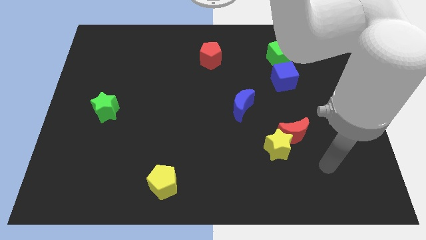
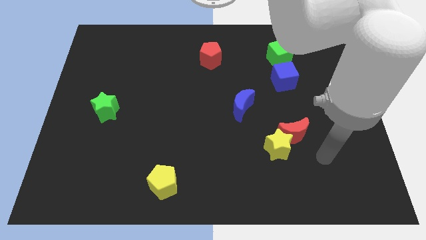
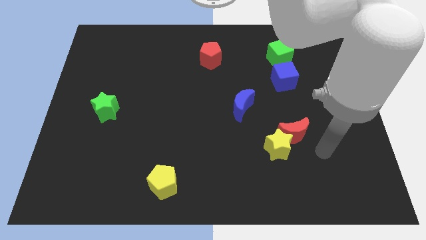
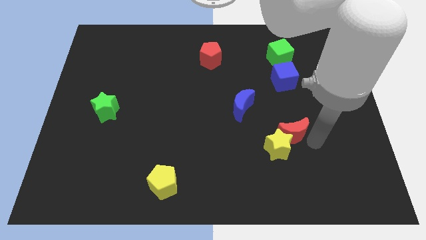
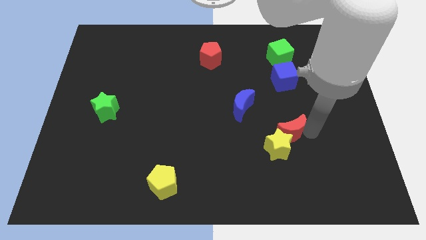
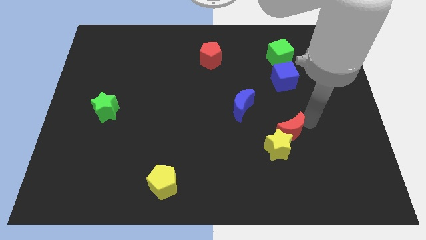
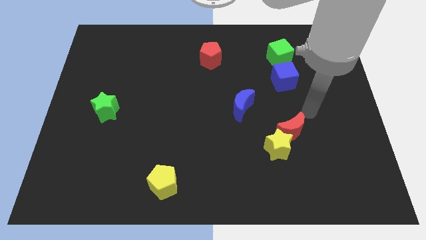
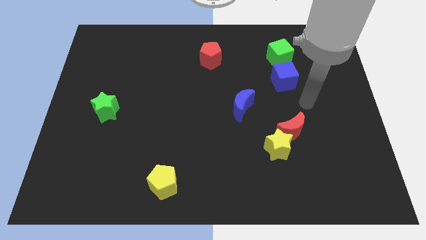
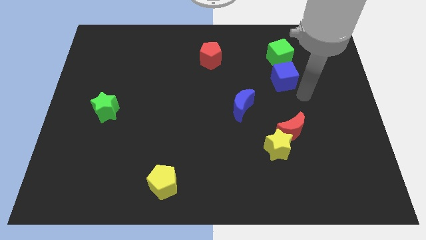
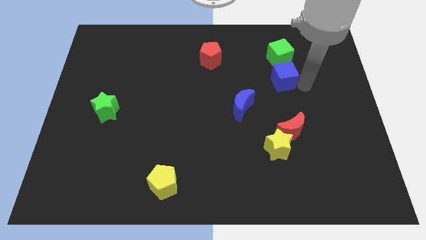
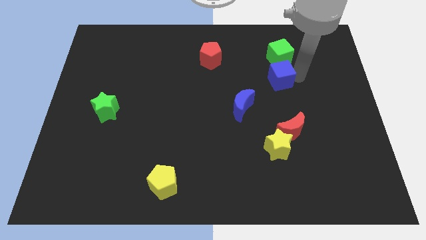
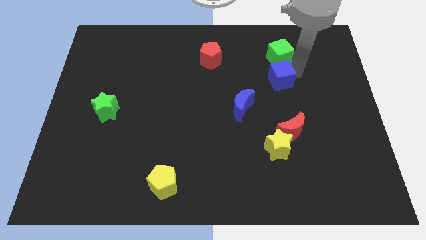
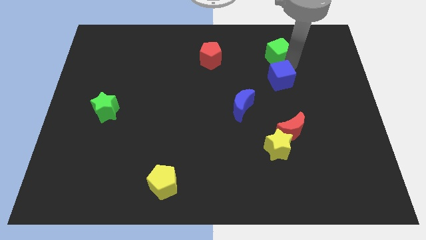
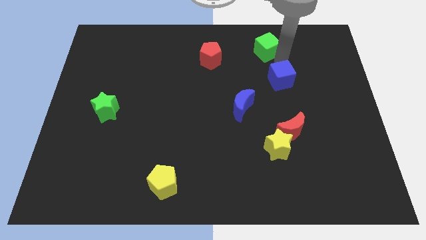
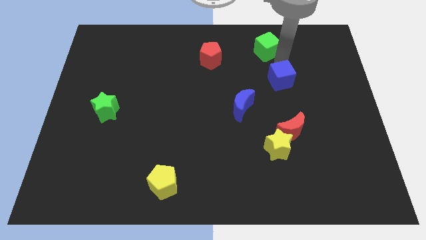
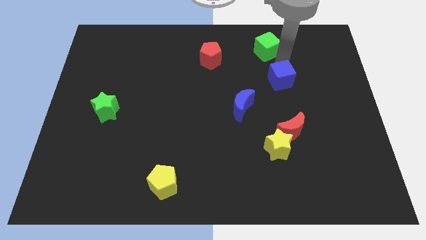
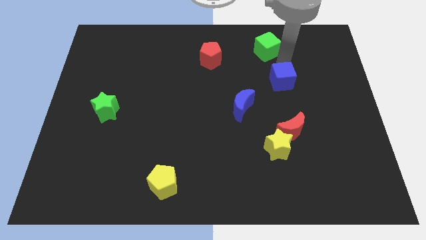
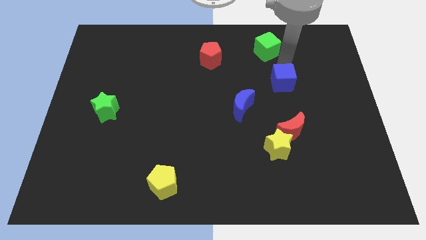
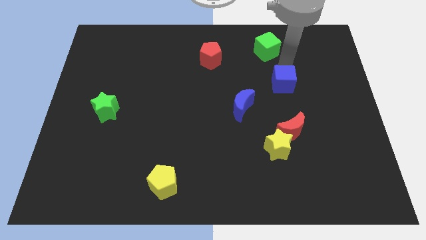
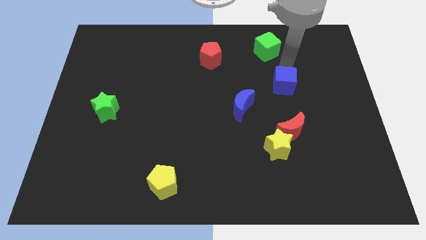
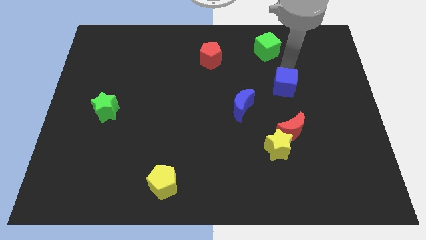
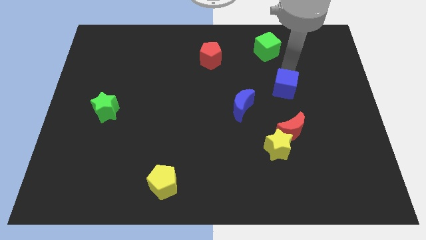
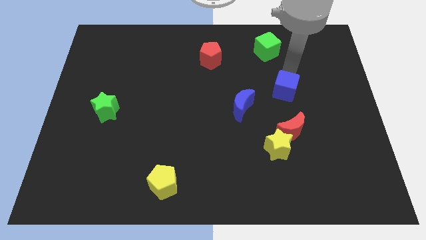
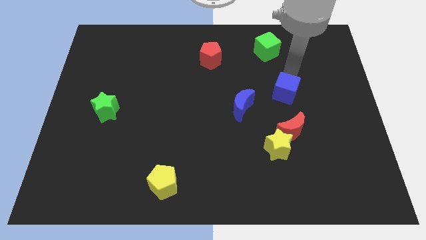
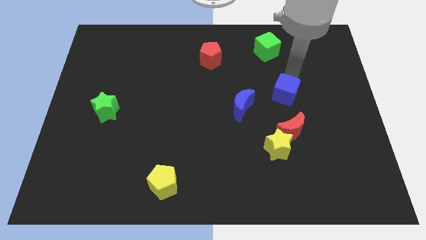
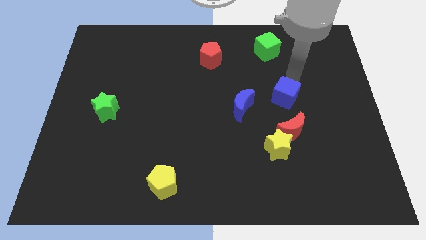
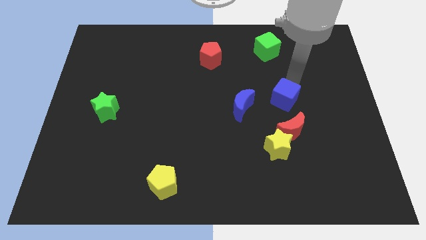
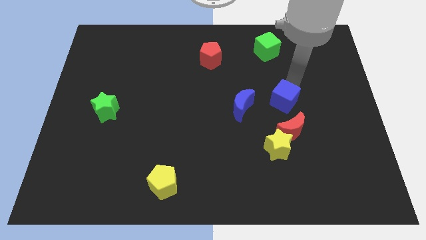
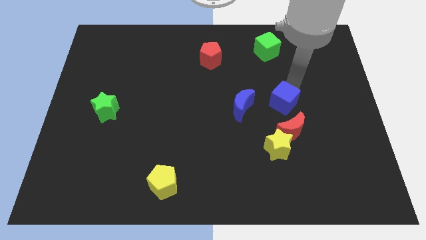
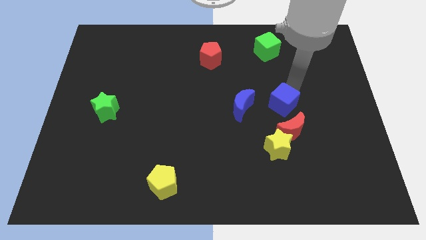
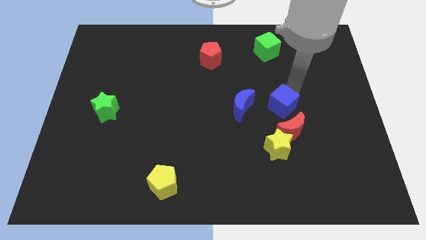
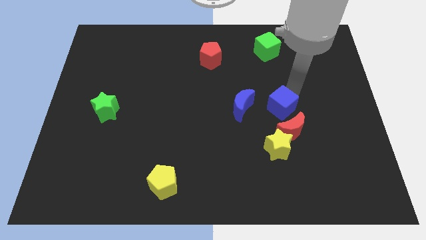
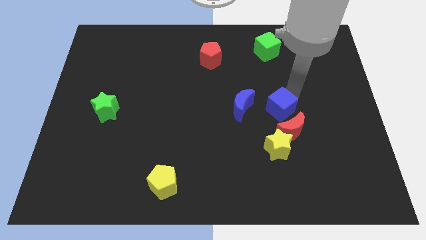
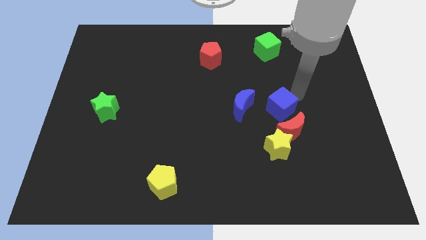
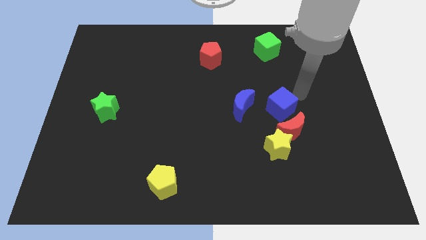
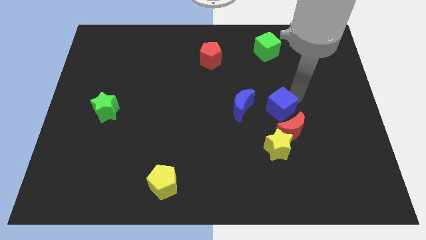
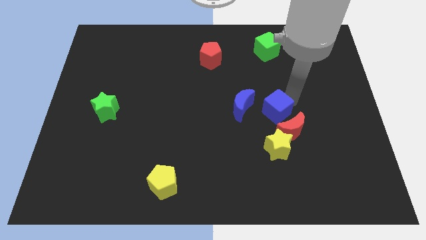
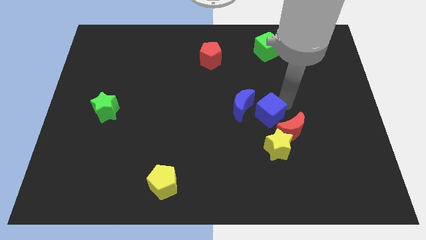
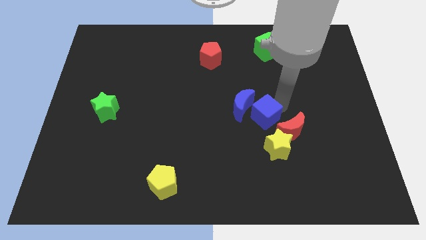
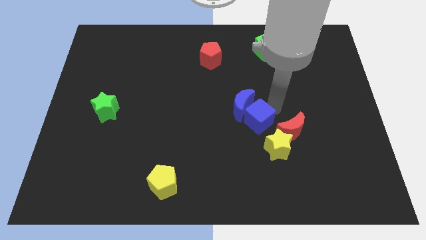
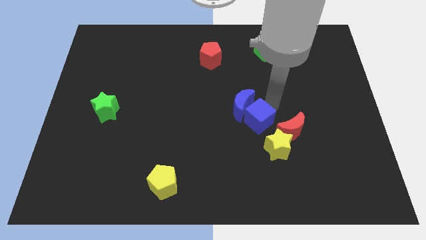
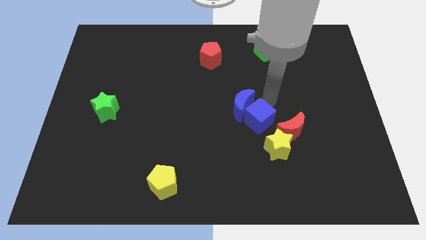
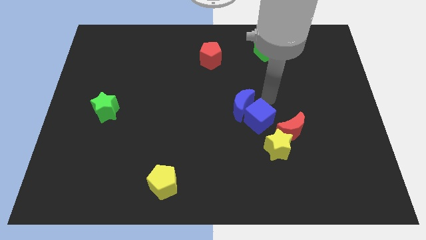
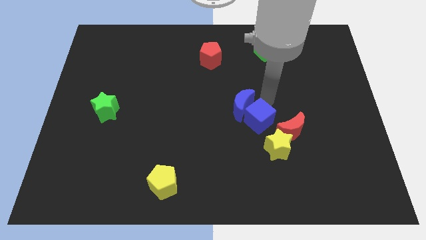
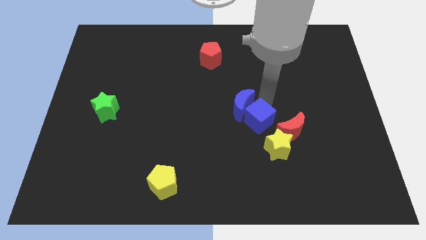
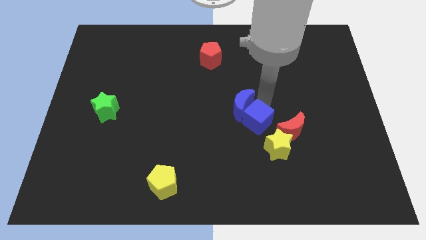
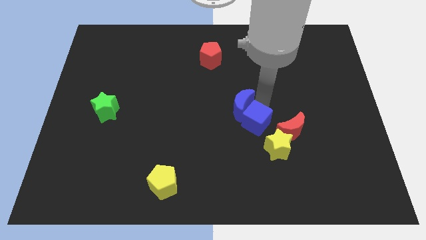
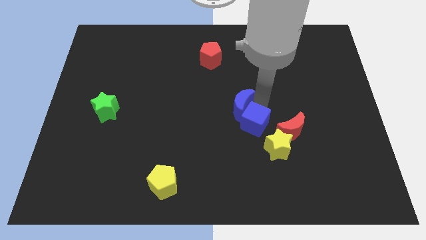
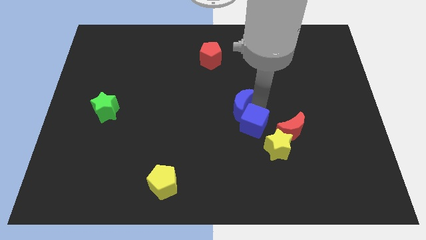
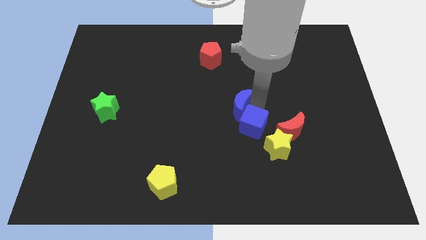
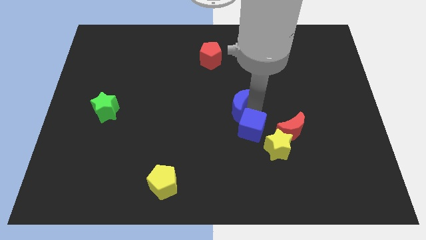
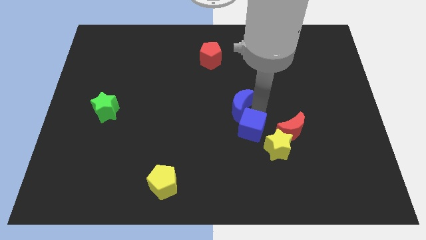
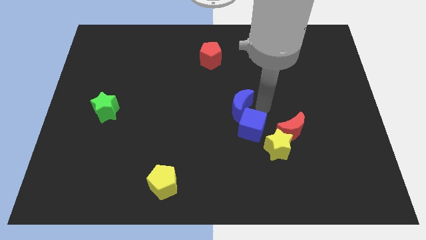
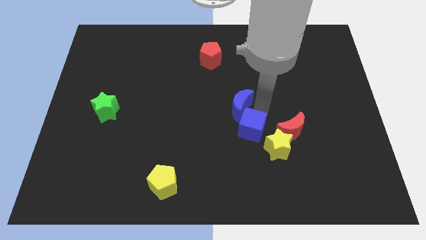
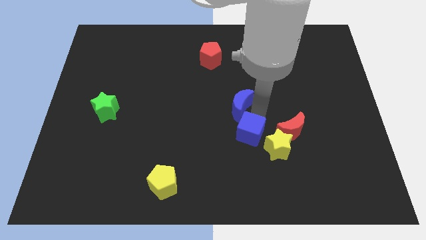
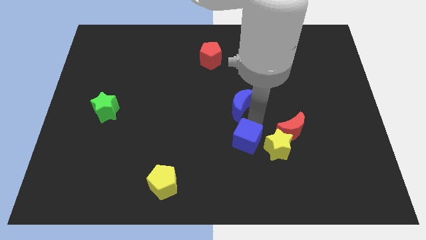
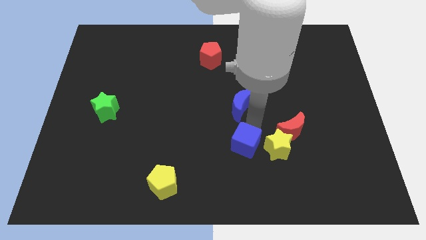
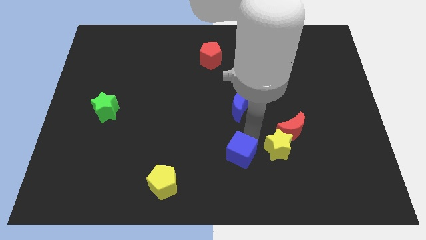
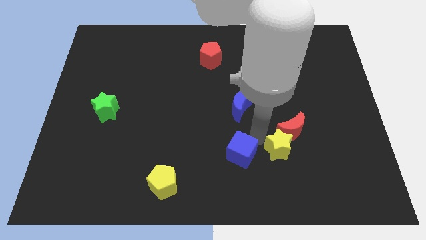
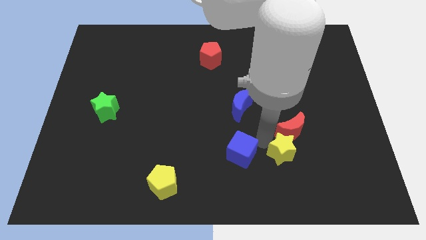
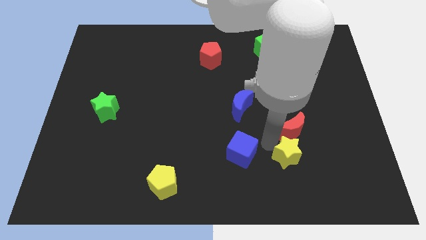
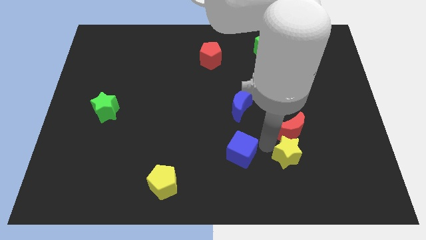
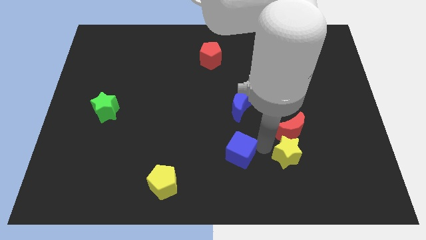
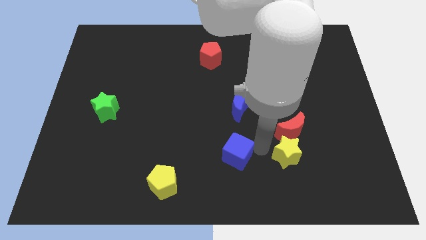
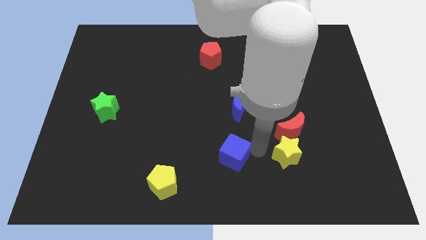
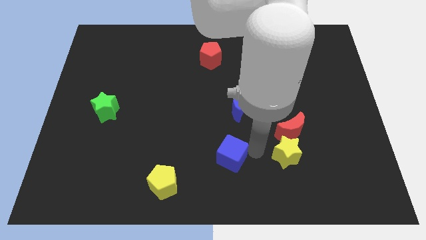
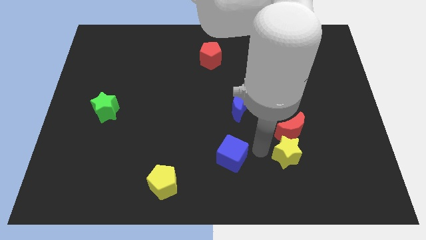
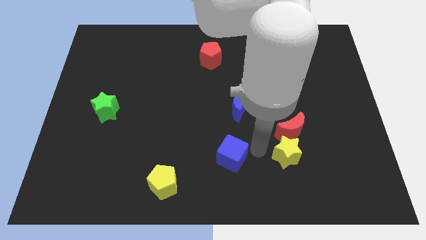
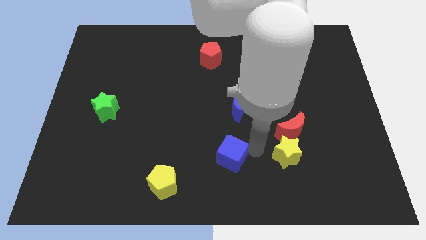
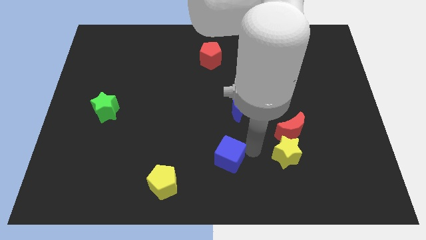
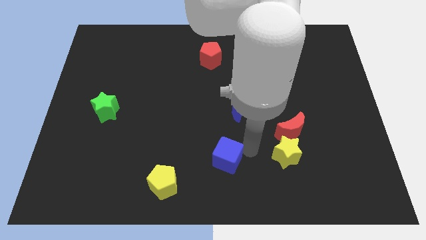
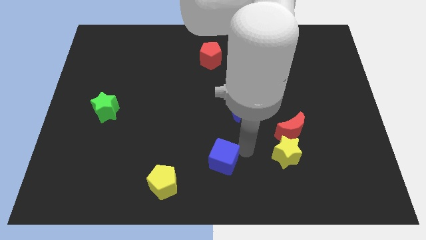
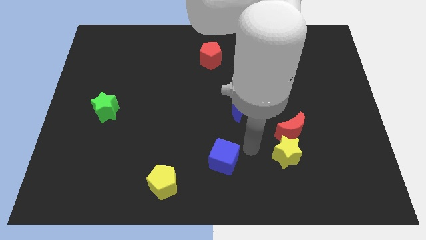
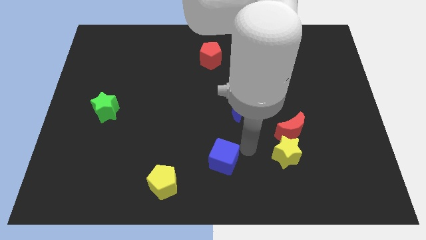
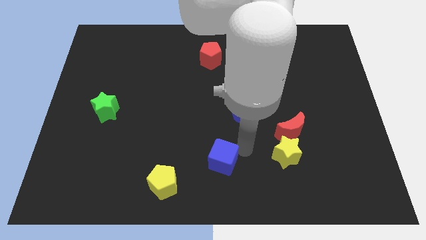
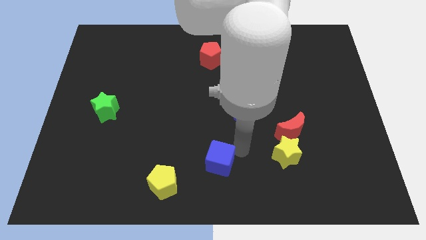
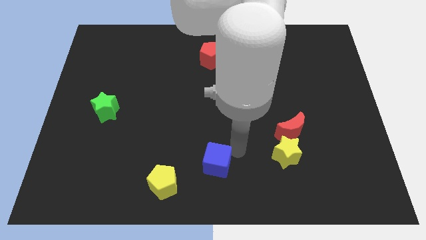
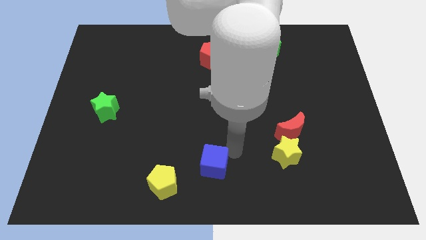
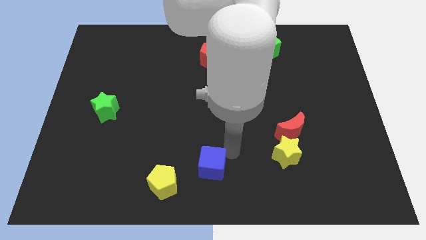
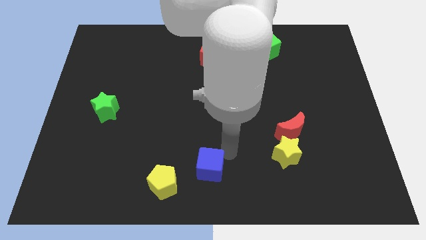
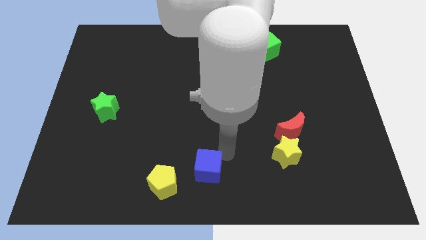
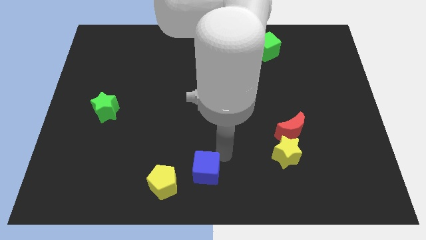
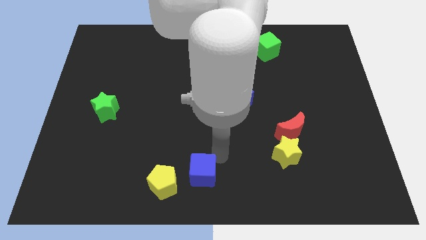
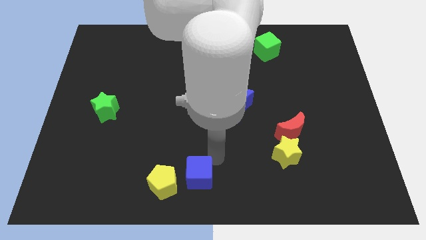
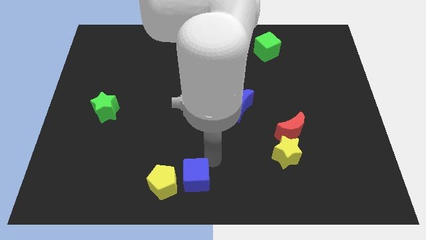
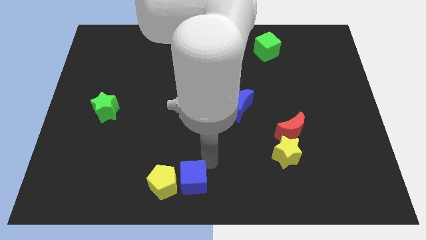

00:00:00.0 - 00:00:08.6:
move the blue cube next to the yellow pentagon
